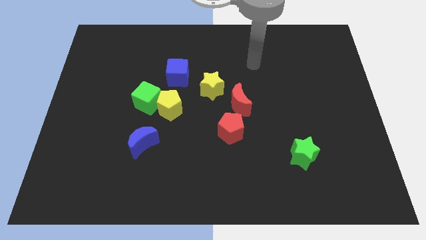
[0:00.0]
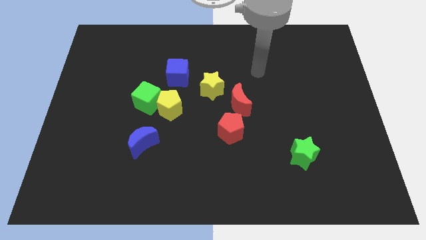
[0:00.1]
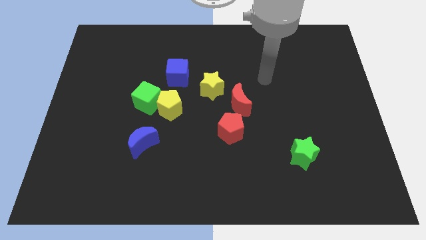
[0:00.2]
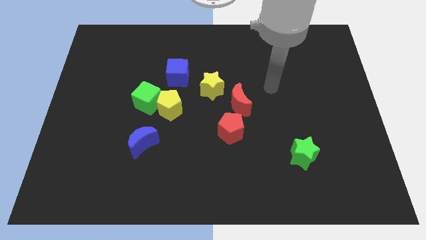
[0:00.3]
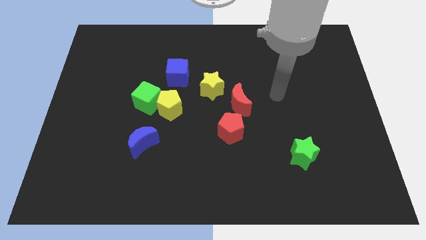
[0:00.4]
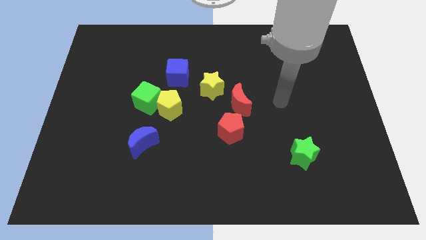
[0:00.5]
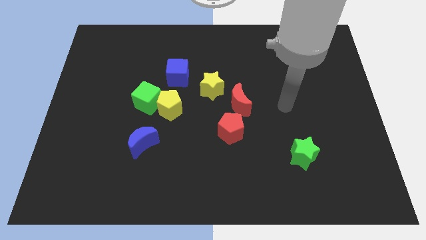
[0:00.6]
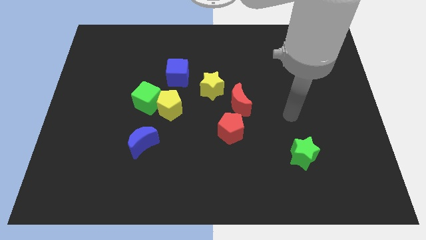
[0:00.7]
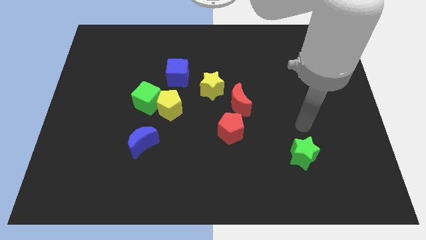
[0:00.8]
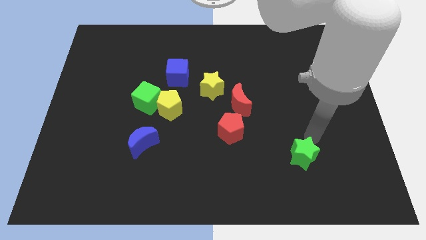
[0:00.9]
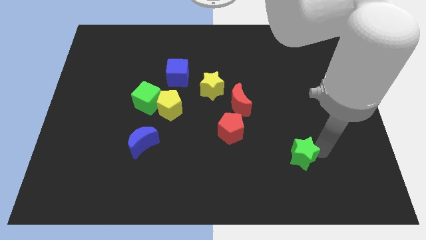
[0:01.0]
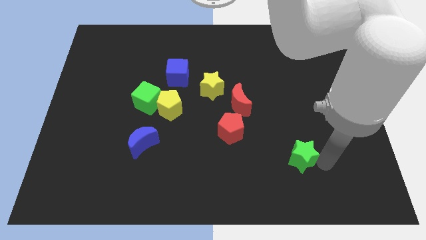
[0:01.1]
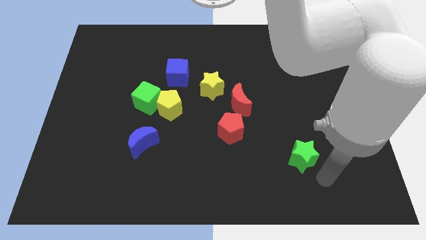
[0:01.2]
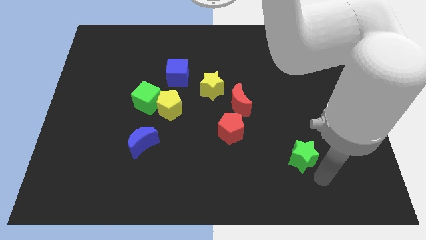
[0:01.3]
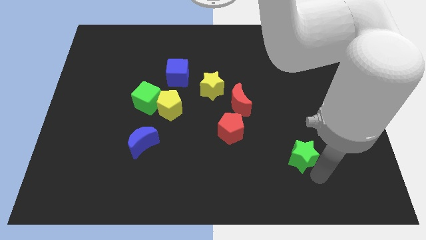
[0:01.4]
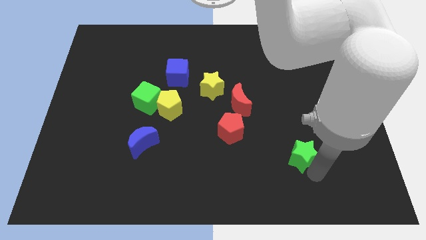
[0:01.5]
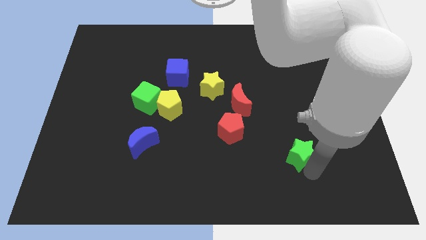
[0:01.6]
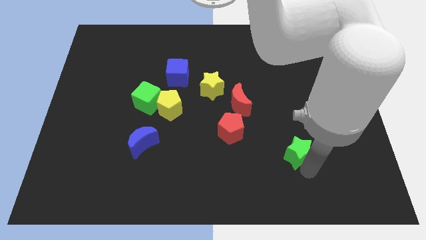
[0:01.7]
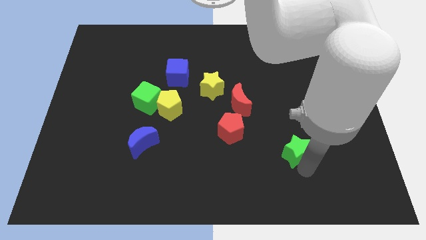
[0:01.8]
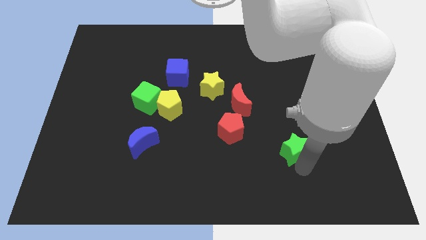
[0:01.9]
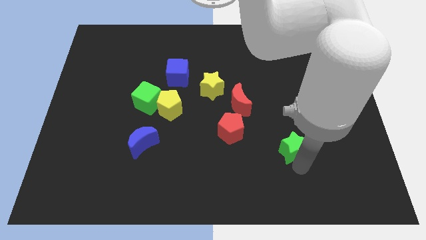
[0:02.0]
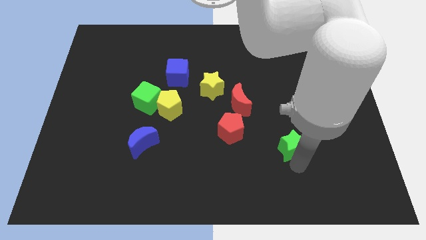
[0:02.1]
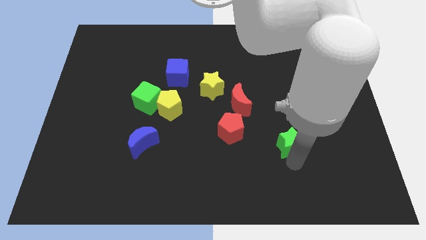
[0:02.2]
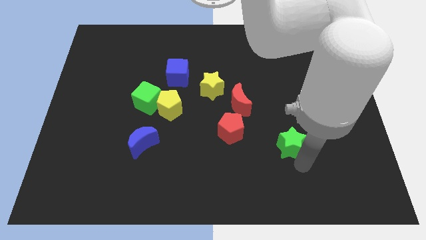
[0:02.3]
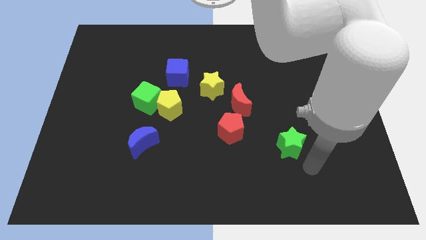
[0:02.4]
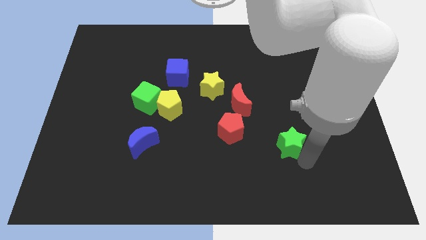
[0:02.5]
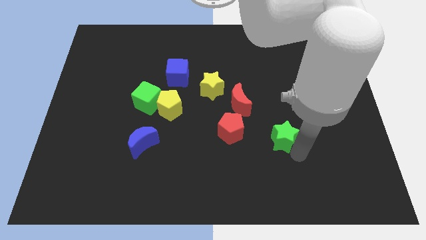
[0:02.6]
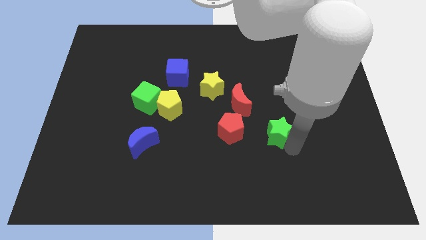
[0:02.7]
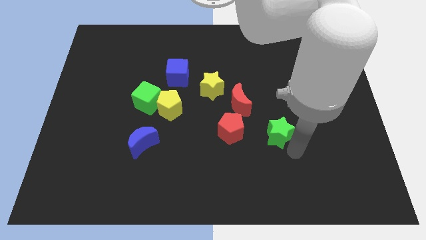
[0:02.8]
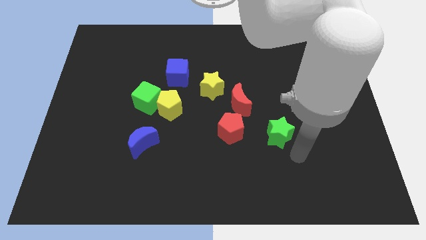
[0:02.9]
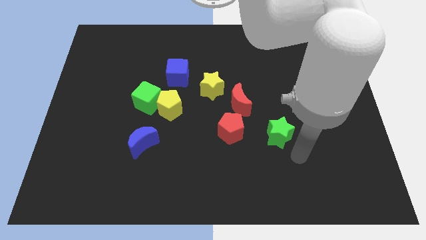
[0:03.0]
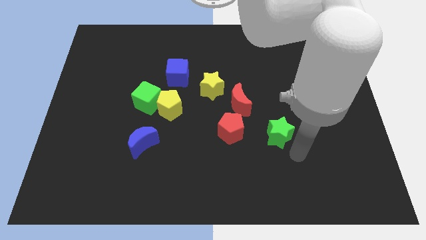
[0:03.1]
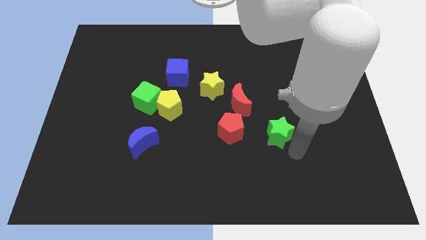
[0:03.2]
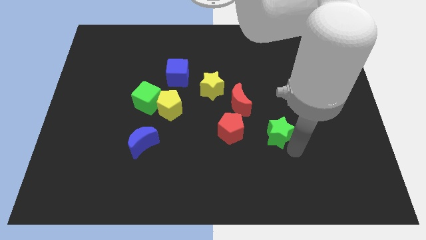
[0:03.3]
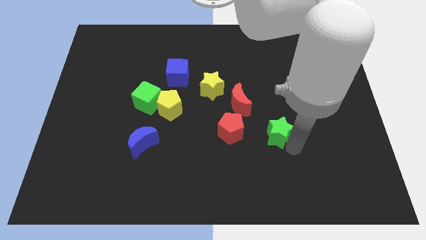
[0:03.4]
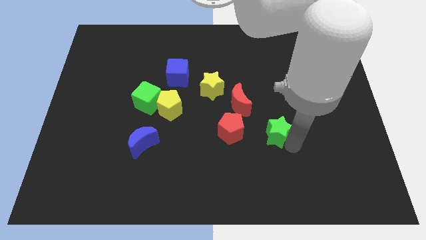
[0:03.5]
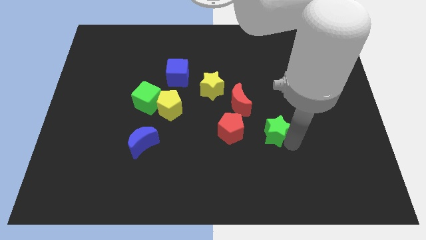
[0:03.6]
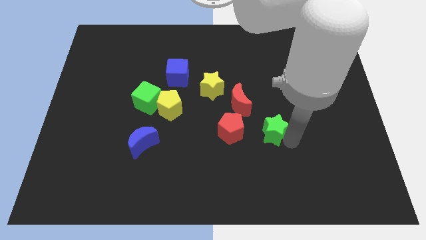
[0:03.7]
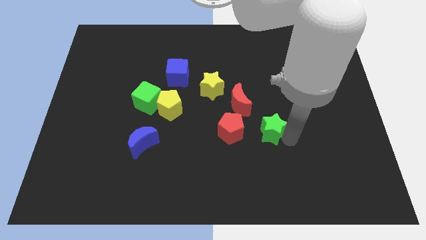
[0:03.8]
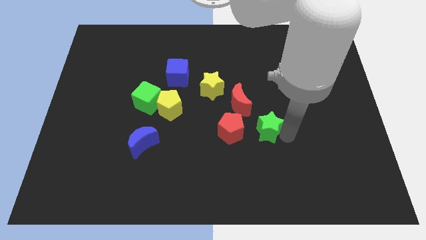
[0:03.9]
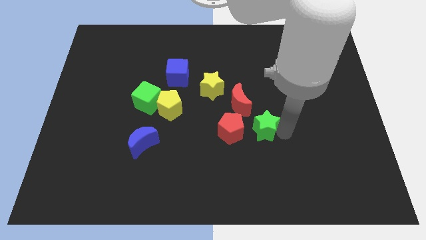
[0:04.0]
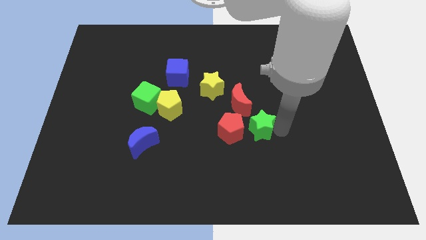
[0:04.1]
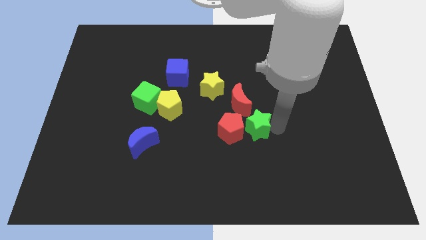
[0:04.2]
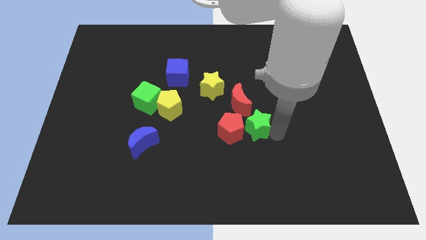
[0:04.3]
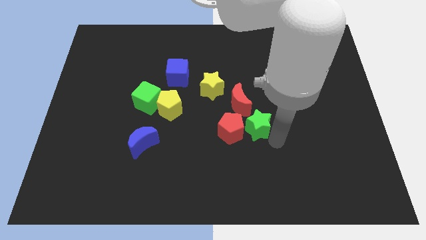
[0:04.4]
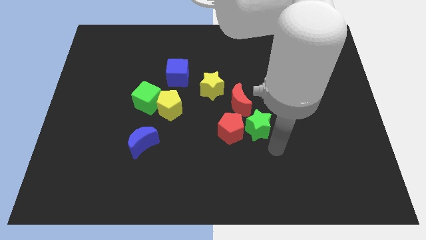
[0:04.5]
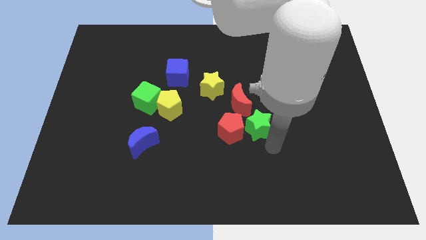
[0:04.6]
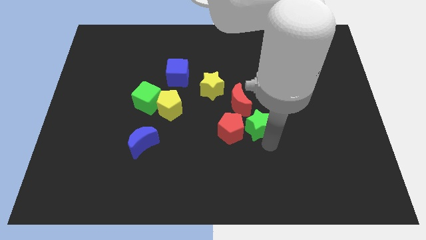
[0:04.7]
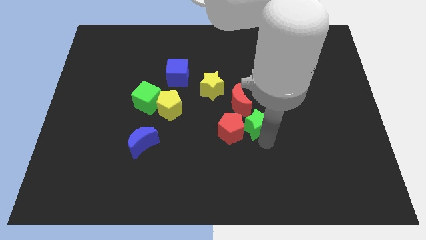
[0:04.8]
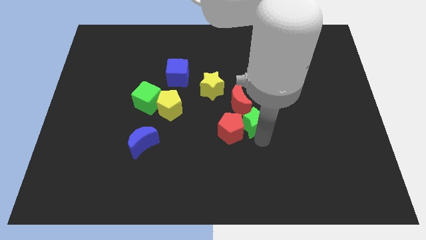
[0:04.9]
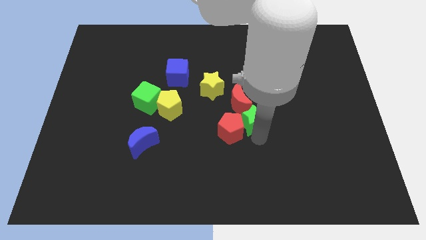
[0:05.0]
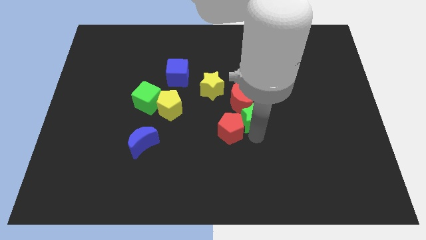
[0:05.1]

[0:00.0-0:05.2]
push the green star to the red moon
